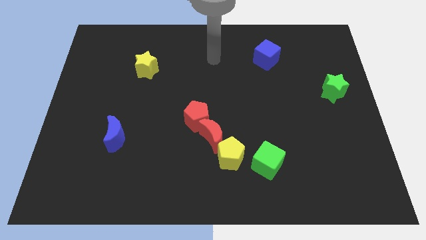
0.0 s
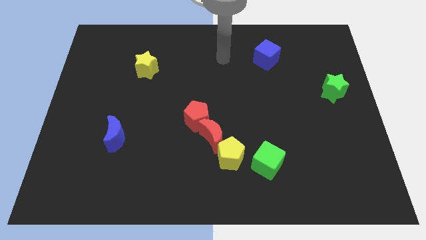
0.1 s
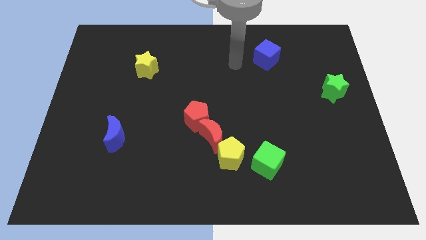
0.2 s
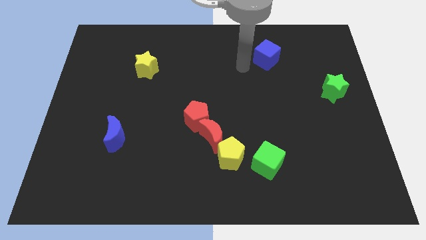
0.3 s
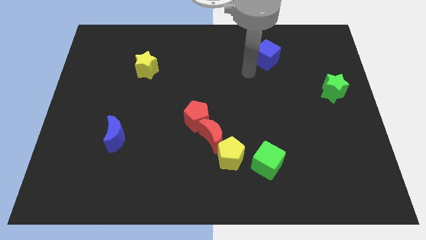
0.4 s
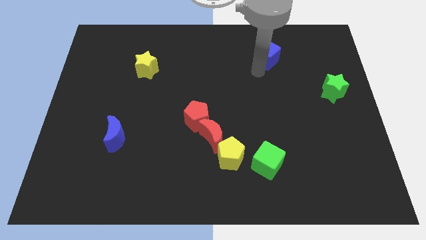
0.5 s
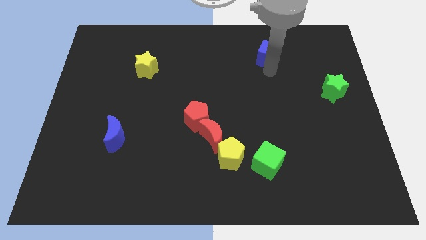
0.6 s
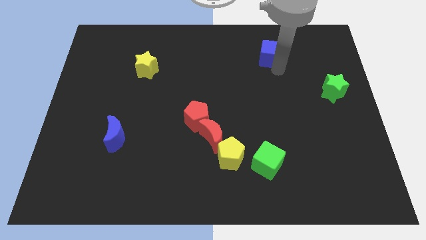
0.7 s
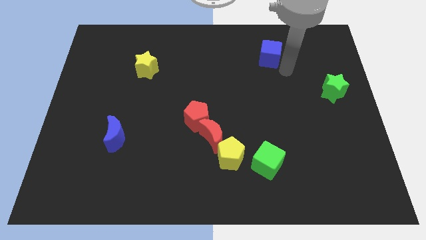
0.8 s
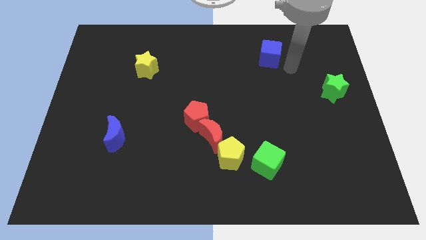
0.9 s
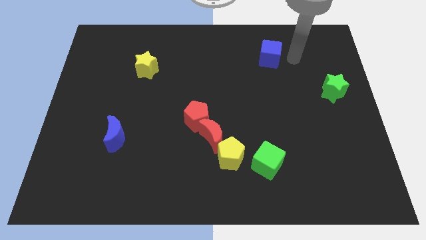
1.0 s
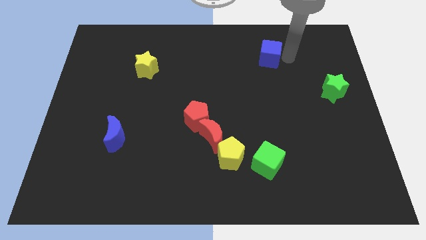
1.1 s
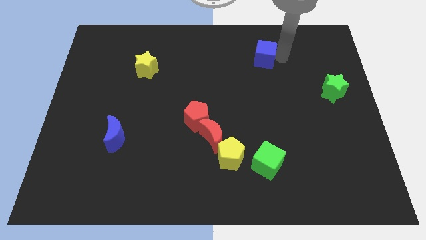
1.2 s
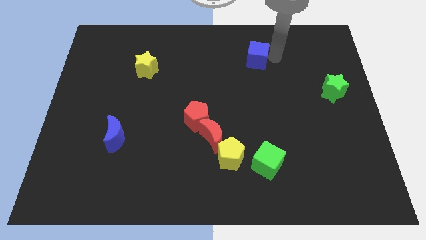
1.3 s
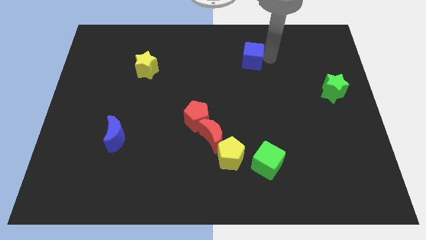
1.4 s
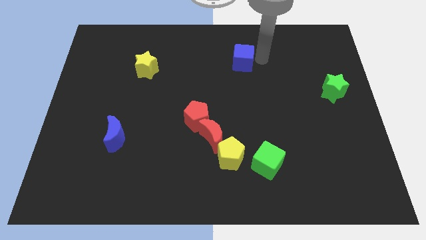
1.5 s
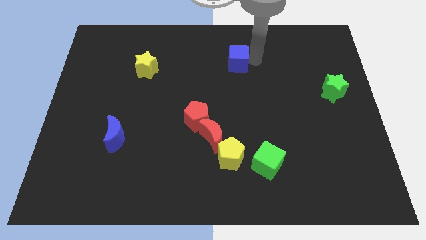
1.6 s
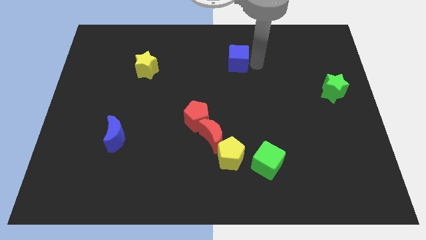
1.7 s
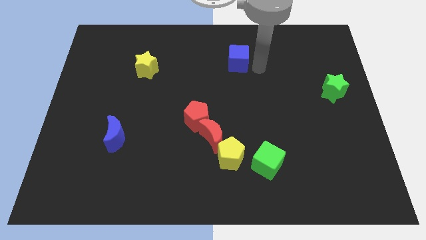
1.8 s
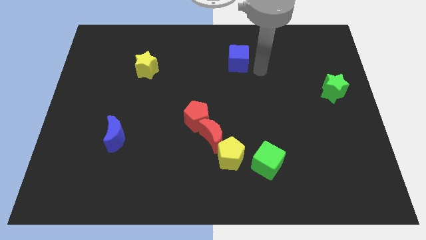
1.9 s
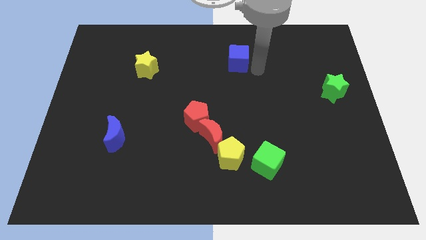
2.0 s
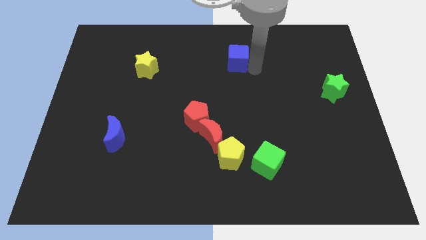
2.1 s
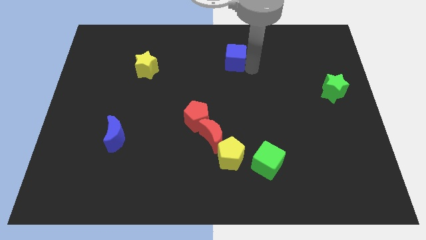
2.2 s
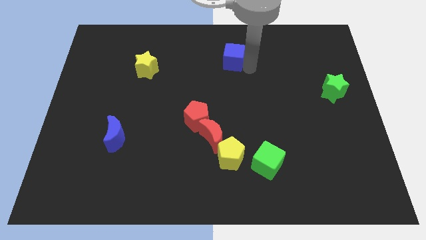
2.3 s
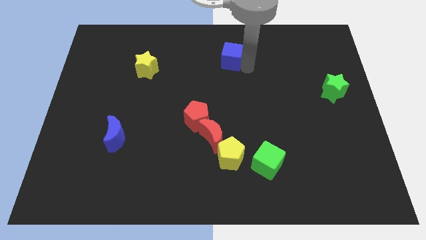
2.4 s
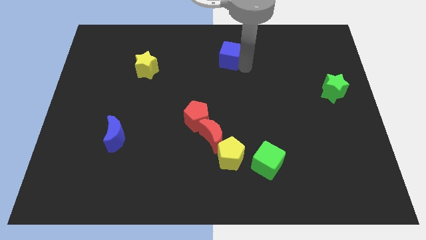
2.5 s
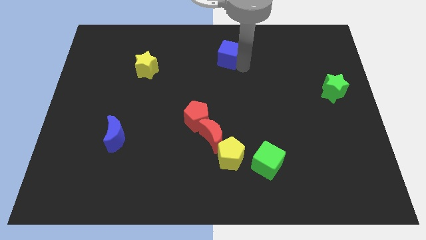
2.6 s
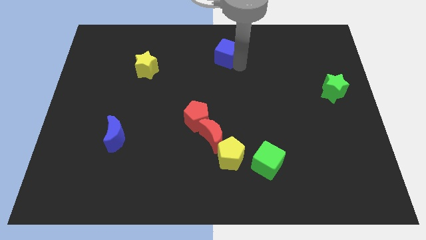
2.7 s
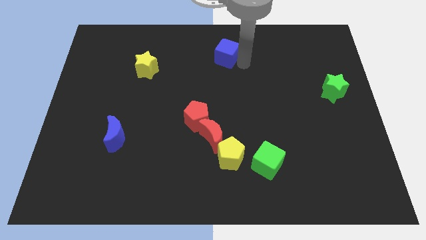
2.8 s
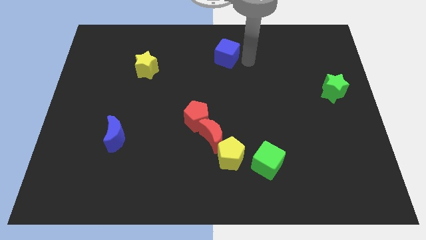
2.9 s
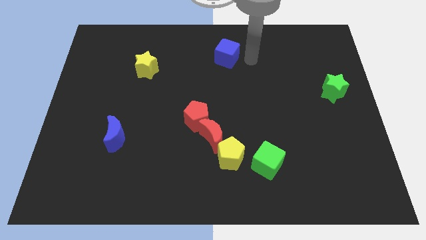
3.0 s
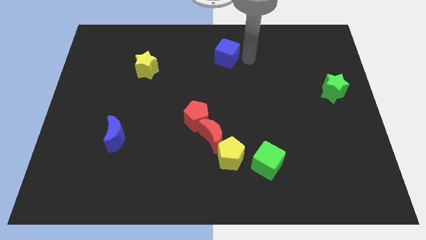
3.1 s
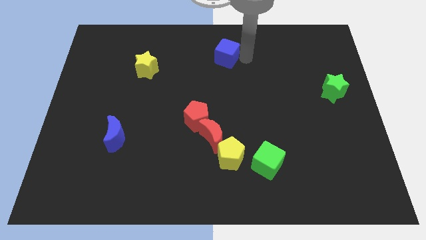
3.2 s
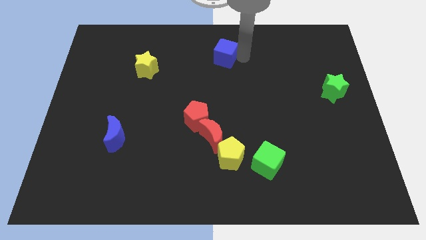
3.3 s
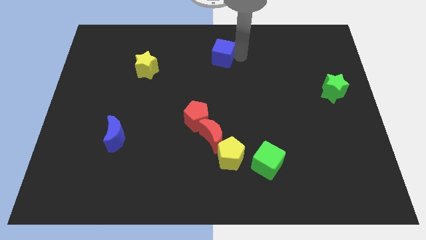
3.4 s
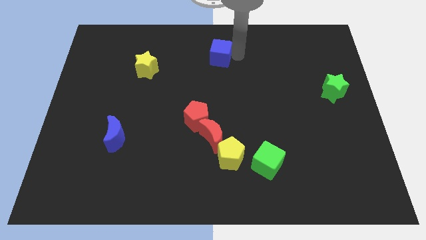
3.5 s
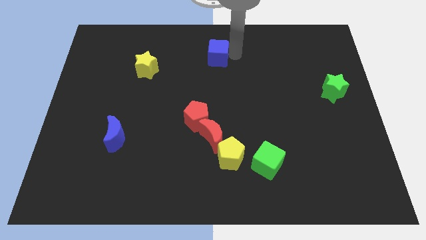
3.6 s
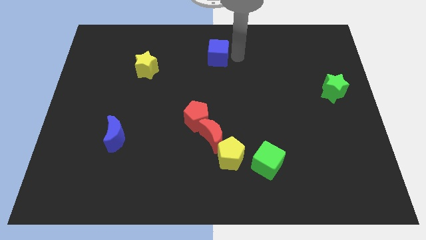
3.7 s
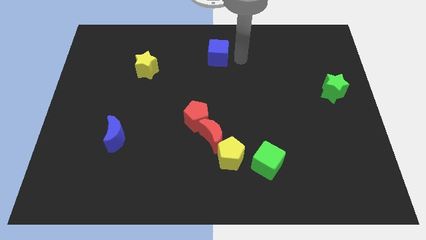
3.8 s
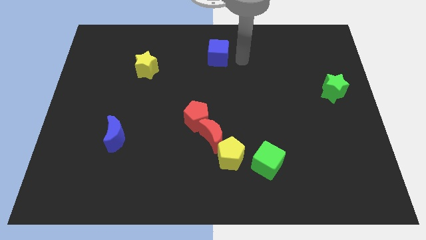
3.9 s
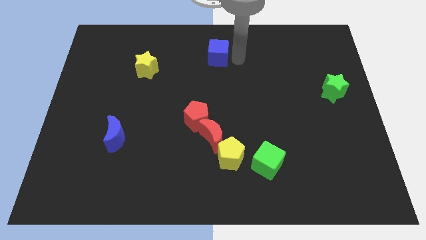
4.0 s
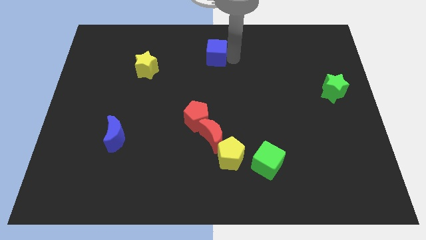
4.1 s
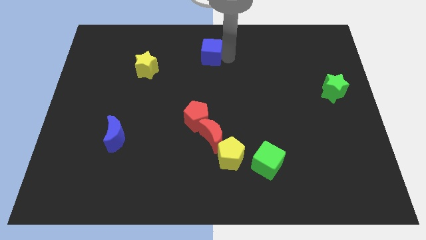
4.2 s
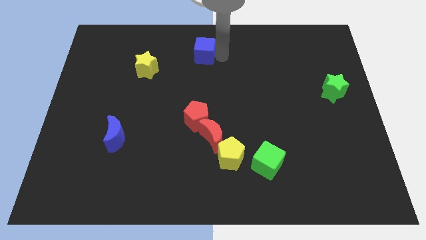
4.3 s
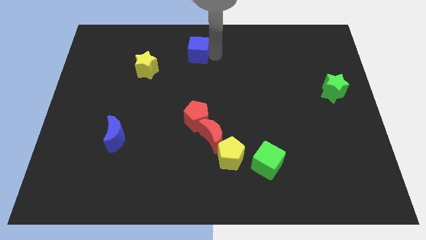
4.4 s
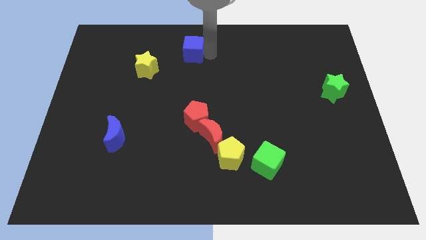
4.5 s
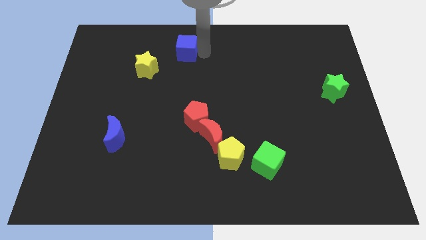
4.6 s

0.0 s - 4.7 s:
push the blue cube to the left

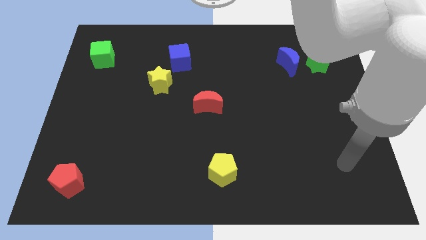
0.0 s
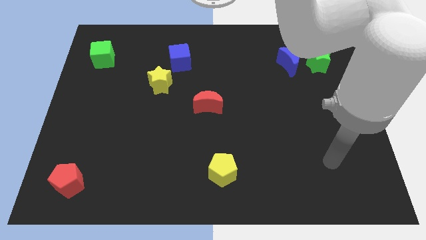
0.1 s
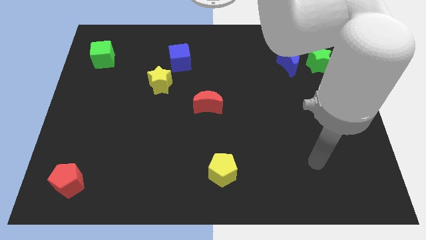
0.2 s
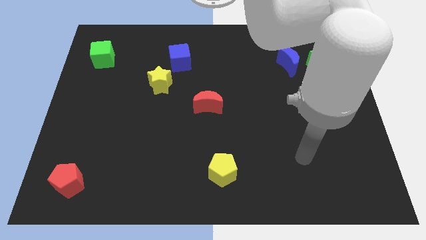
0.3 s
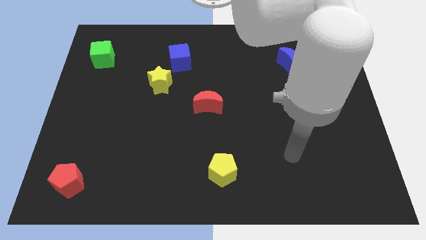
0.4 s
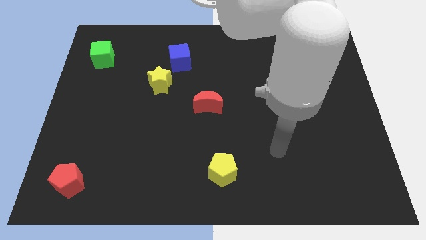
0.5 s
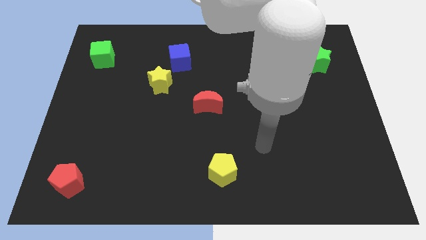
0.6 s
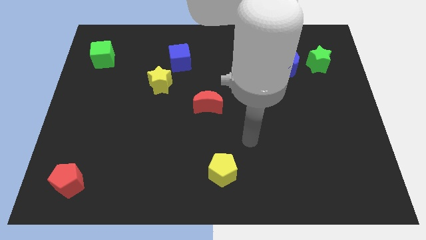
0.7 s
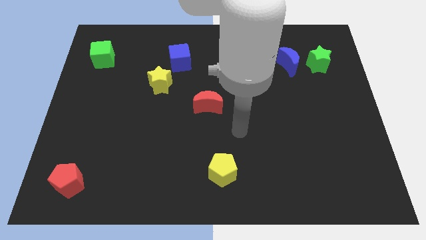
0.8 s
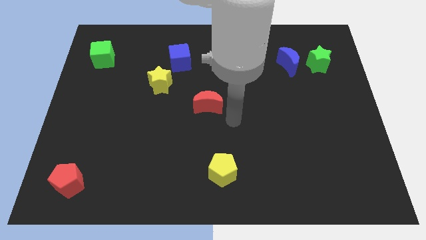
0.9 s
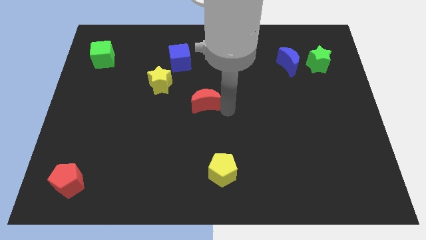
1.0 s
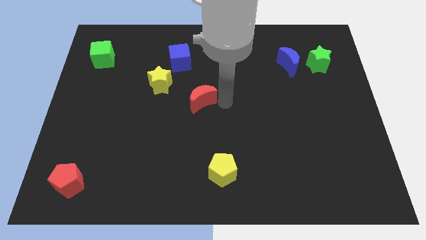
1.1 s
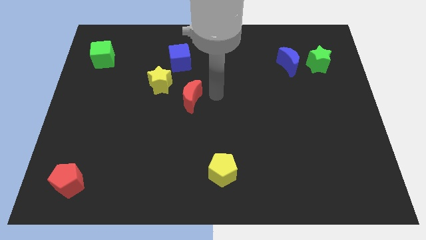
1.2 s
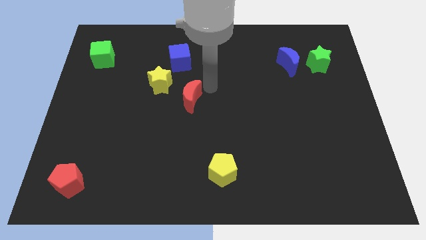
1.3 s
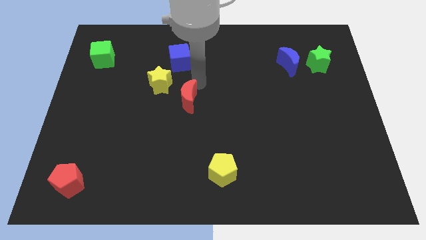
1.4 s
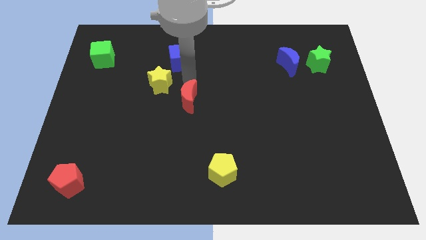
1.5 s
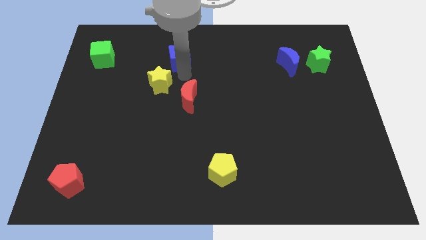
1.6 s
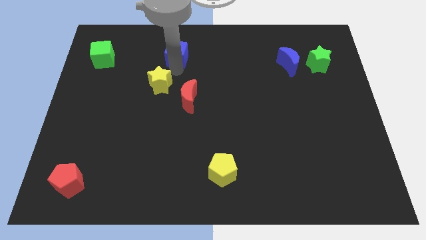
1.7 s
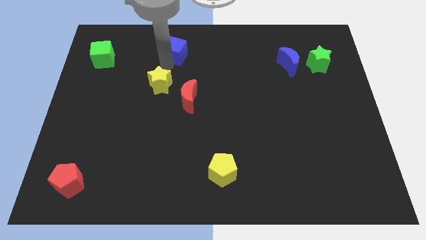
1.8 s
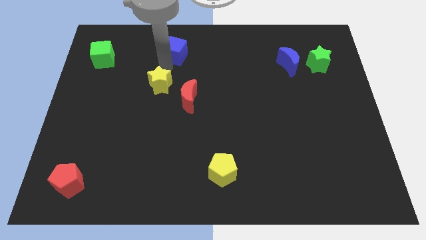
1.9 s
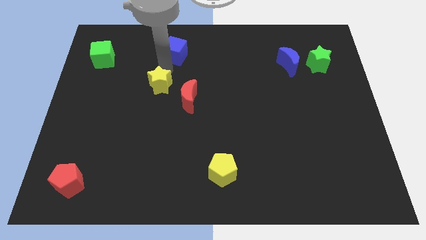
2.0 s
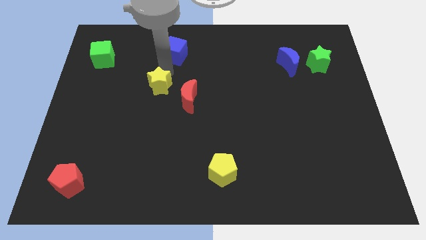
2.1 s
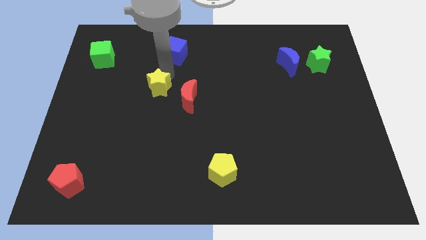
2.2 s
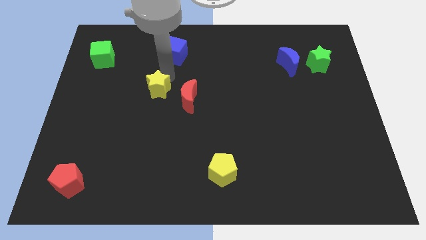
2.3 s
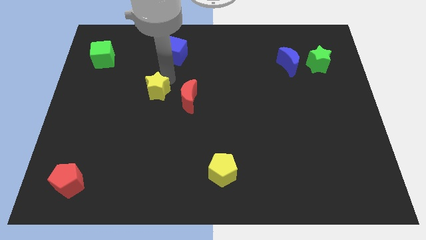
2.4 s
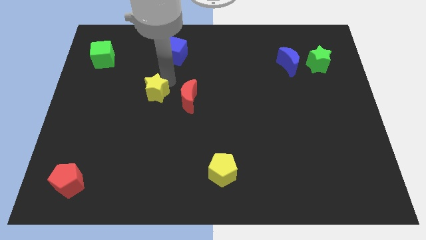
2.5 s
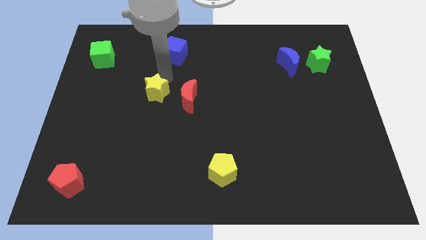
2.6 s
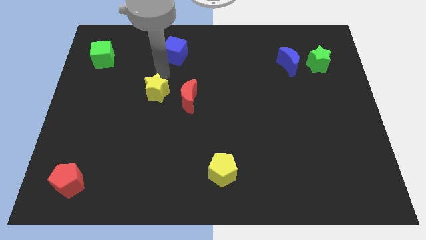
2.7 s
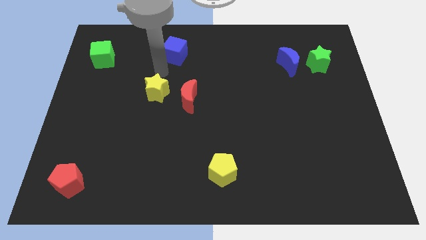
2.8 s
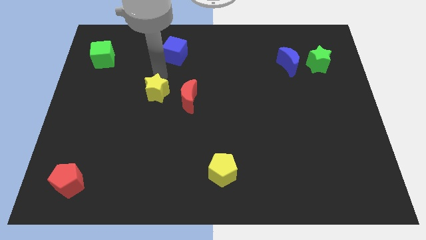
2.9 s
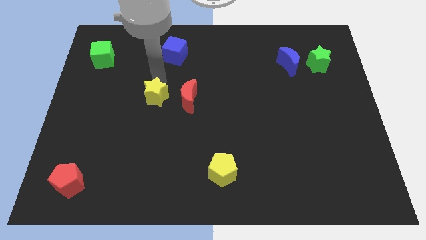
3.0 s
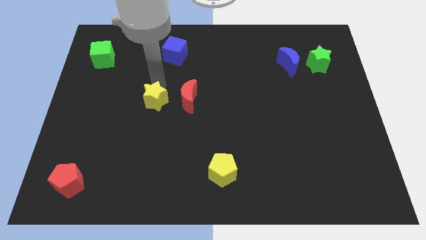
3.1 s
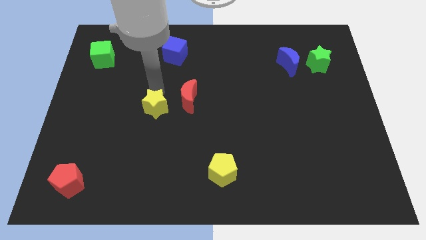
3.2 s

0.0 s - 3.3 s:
slightly move the yellow star downwards

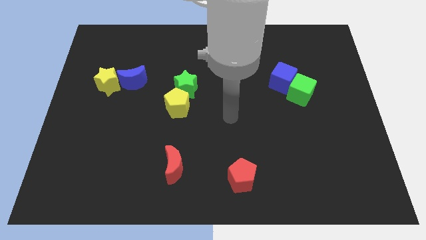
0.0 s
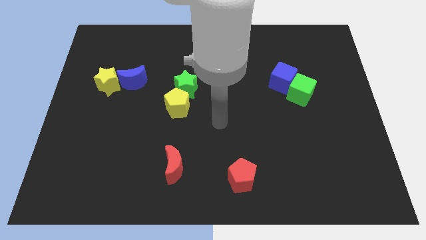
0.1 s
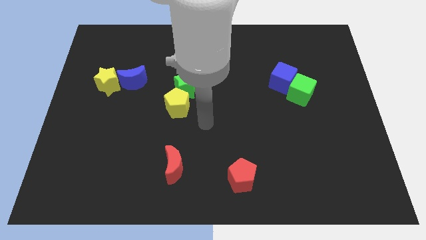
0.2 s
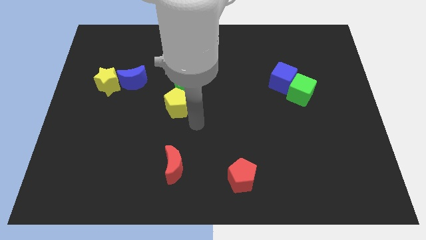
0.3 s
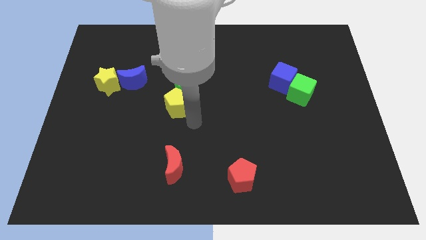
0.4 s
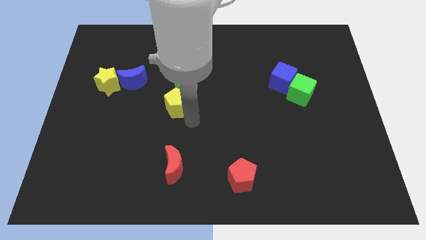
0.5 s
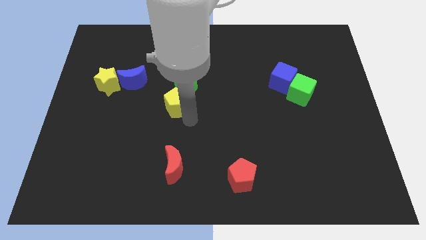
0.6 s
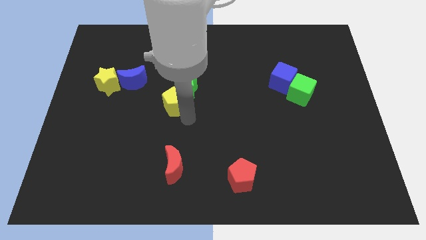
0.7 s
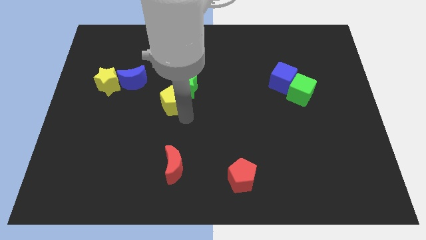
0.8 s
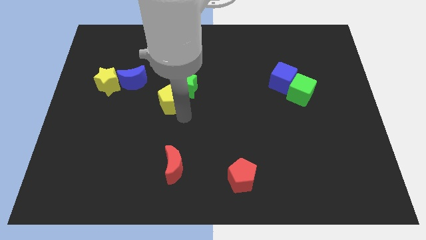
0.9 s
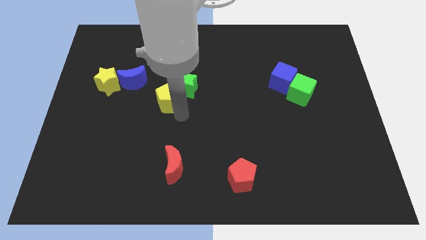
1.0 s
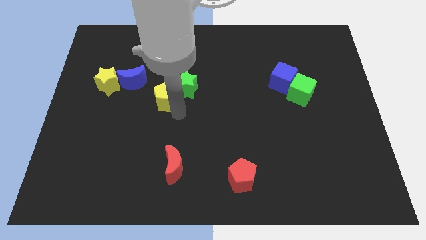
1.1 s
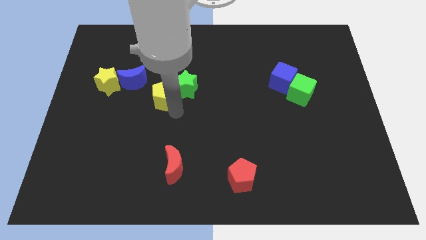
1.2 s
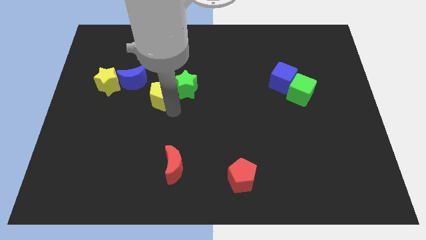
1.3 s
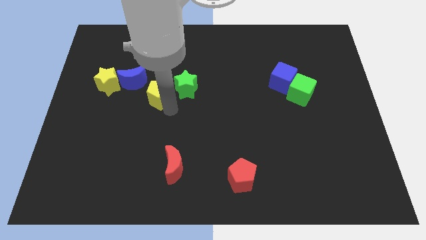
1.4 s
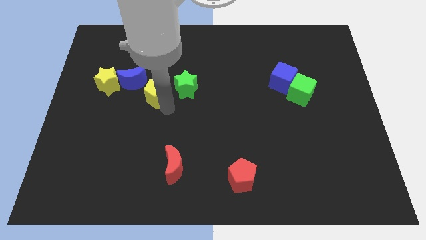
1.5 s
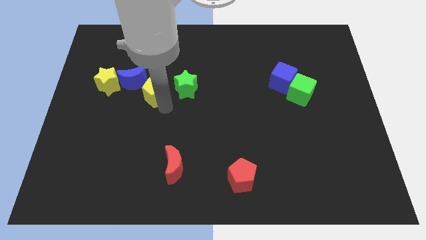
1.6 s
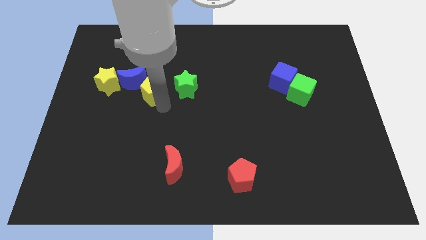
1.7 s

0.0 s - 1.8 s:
move the yellow pentagon diagonally upwards and to the left a bit
